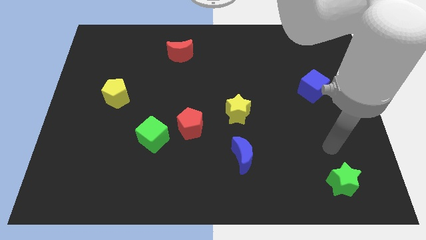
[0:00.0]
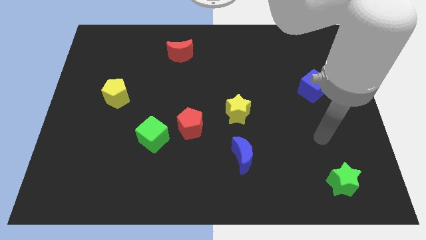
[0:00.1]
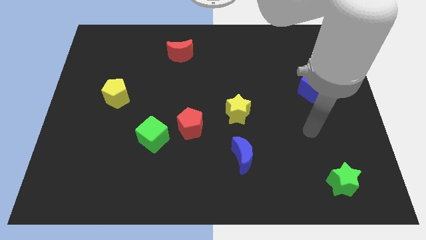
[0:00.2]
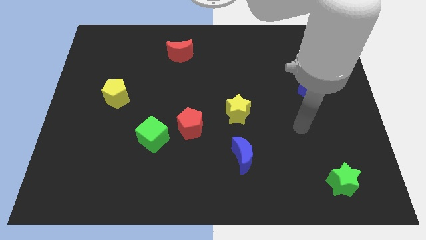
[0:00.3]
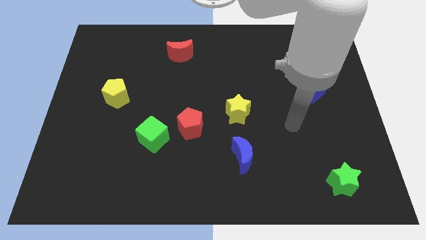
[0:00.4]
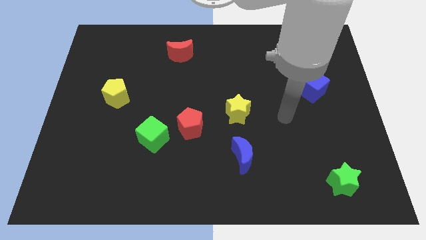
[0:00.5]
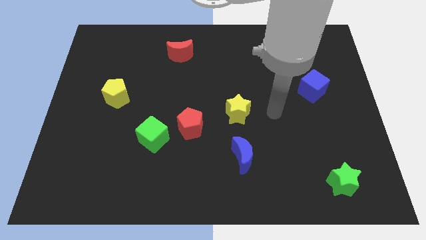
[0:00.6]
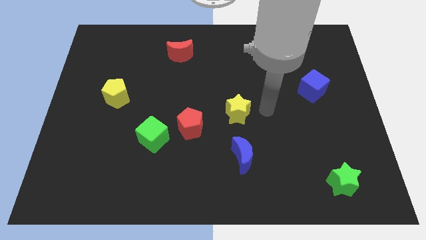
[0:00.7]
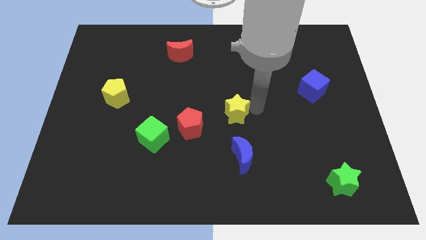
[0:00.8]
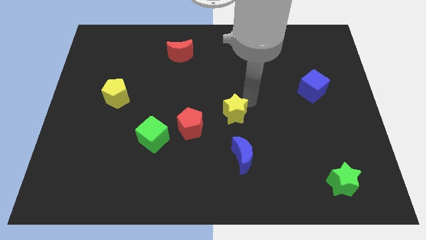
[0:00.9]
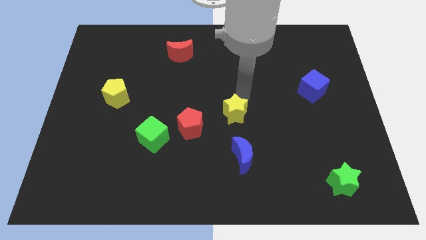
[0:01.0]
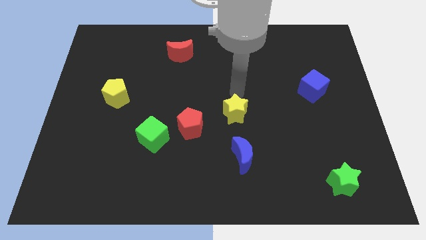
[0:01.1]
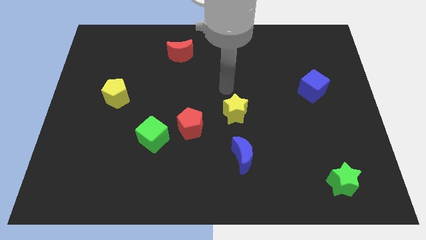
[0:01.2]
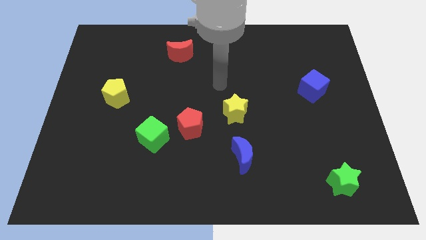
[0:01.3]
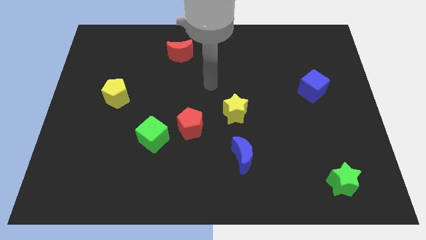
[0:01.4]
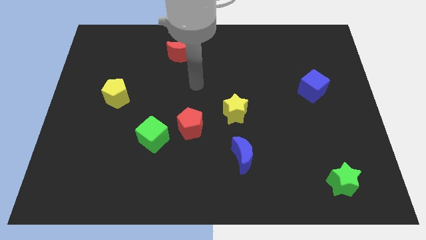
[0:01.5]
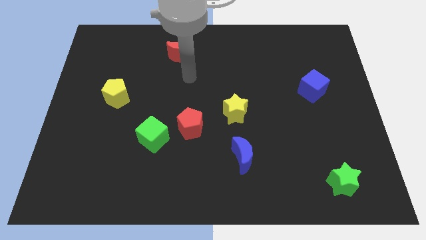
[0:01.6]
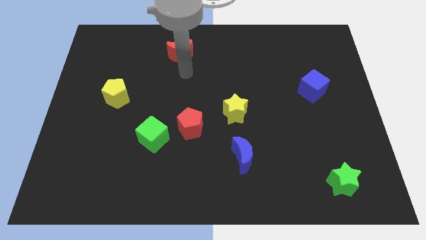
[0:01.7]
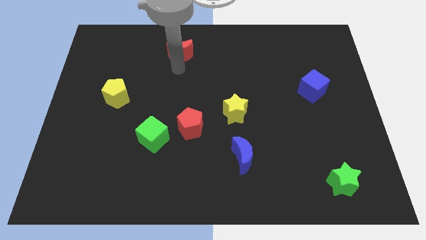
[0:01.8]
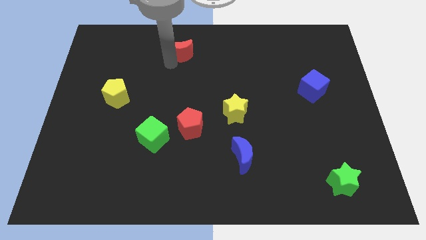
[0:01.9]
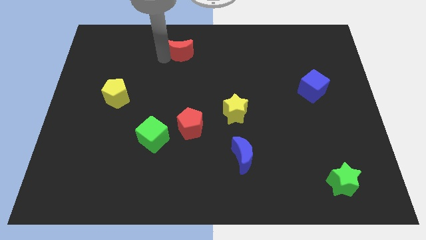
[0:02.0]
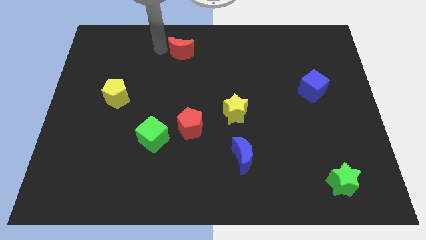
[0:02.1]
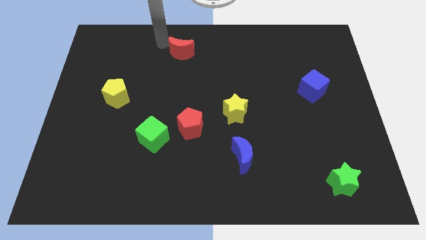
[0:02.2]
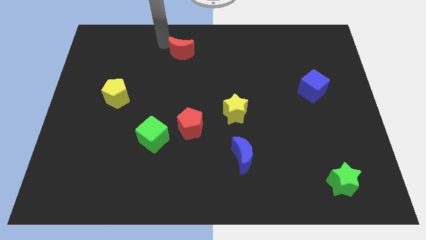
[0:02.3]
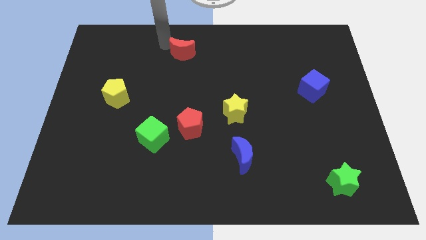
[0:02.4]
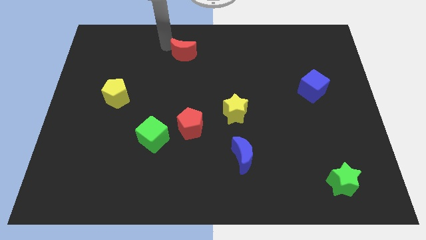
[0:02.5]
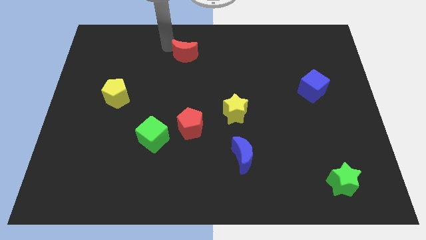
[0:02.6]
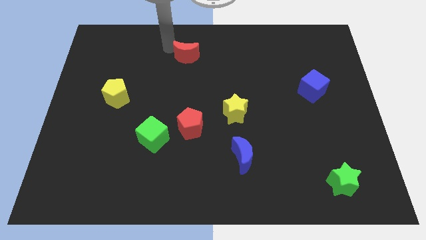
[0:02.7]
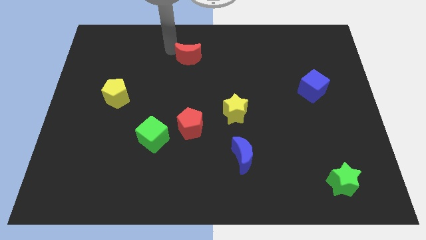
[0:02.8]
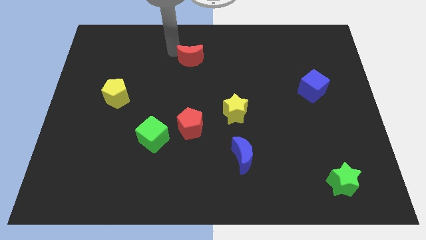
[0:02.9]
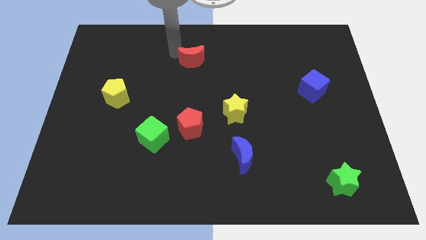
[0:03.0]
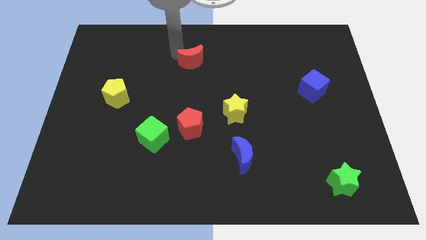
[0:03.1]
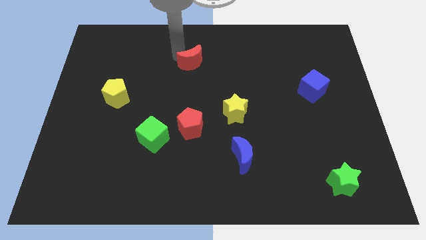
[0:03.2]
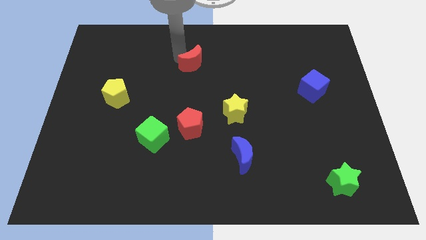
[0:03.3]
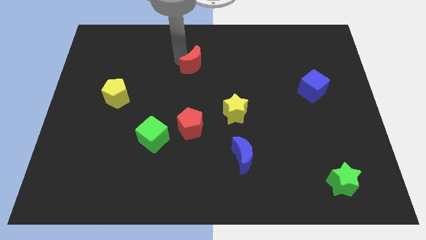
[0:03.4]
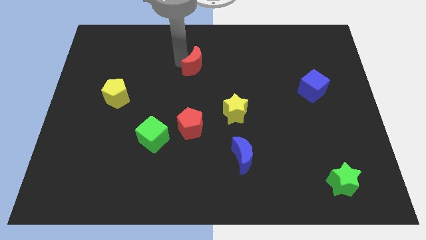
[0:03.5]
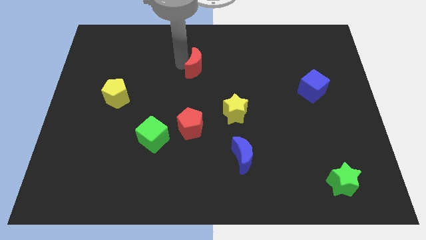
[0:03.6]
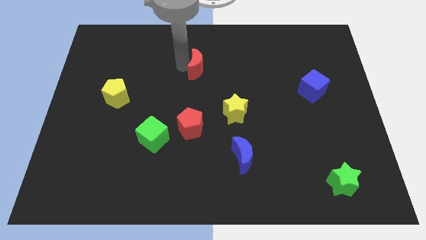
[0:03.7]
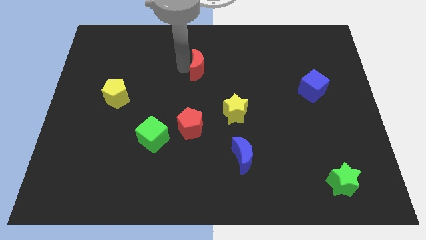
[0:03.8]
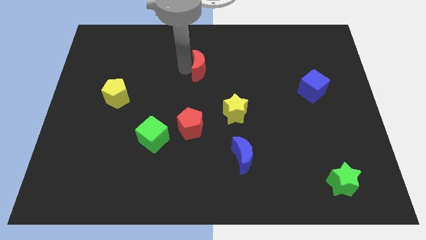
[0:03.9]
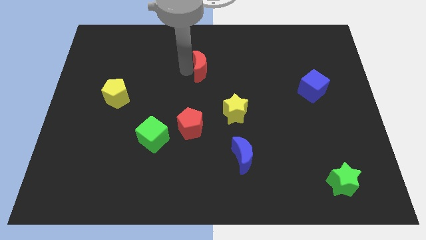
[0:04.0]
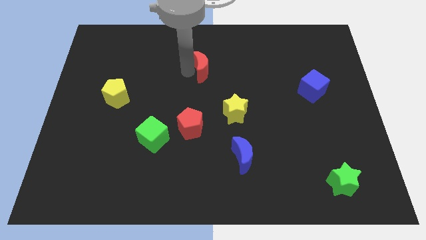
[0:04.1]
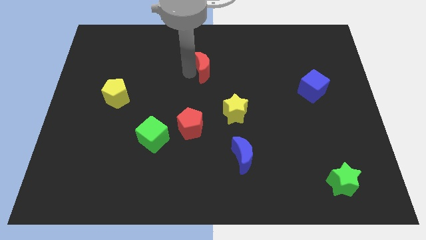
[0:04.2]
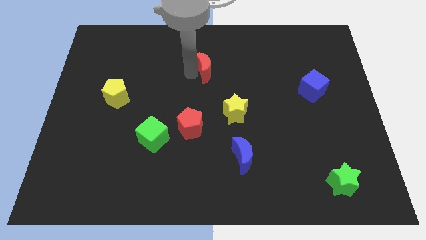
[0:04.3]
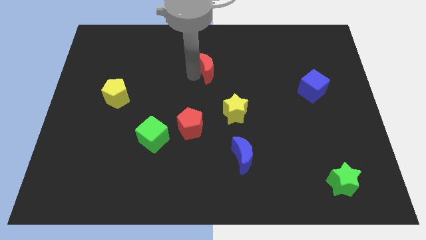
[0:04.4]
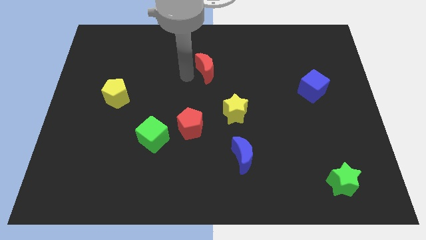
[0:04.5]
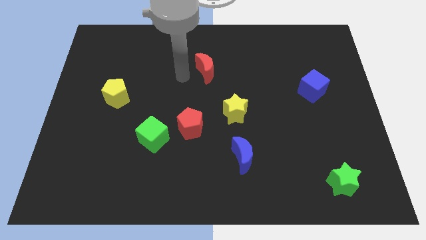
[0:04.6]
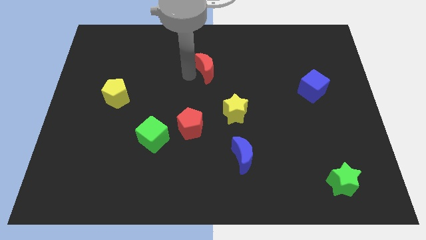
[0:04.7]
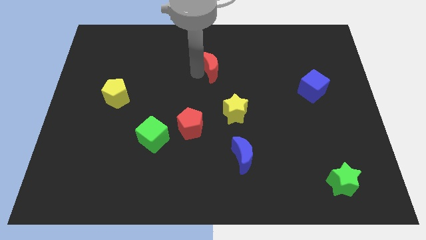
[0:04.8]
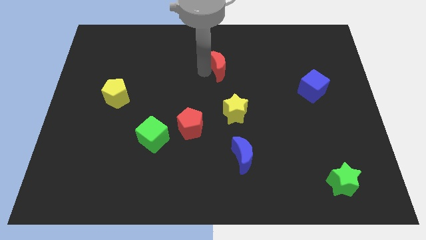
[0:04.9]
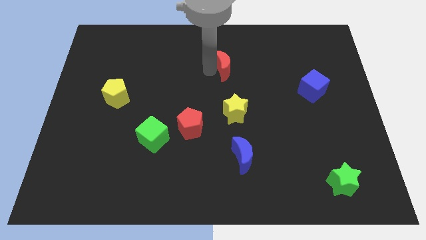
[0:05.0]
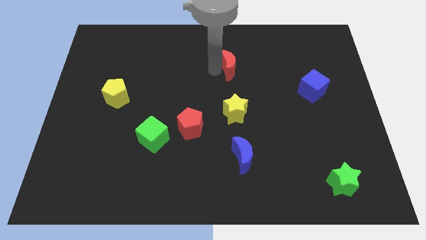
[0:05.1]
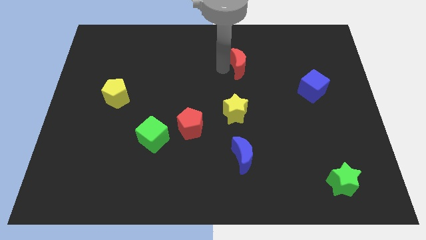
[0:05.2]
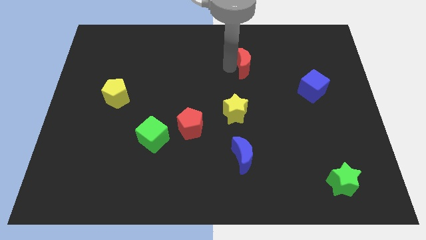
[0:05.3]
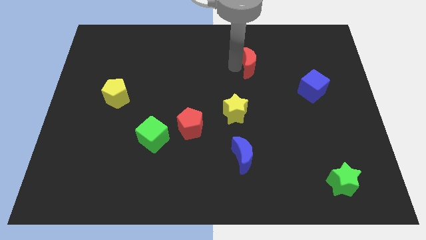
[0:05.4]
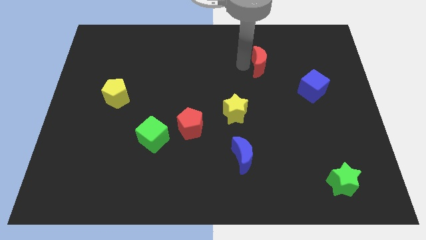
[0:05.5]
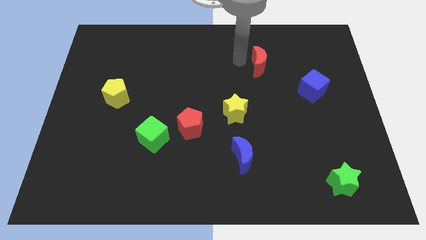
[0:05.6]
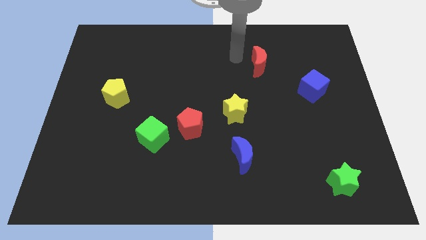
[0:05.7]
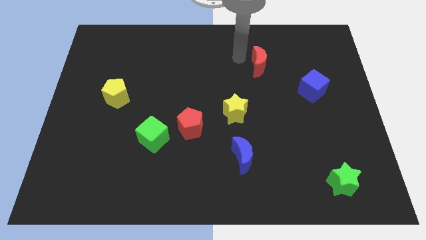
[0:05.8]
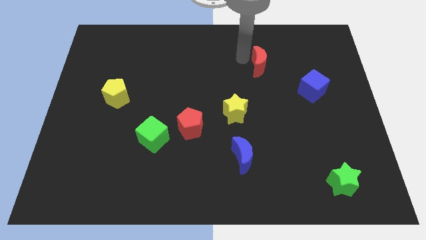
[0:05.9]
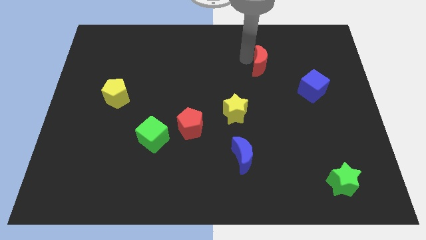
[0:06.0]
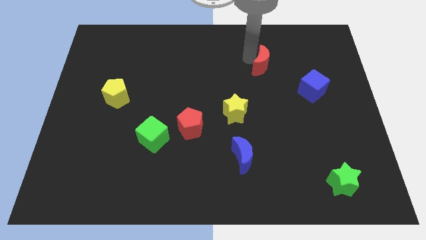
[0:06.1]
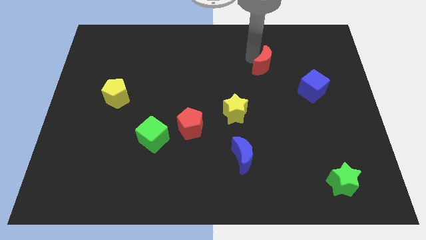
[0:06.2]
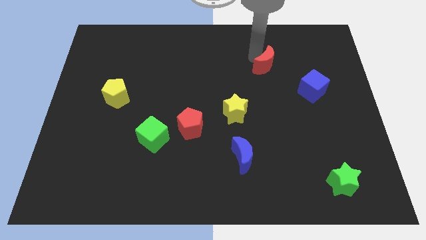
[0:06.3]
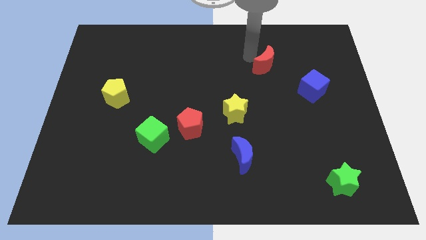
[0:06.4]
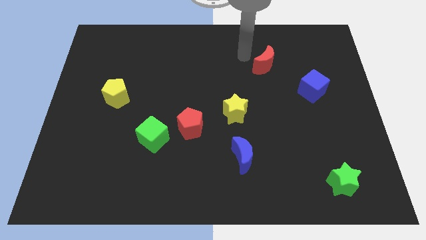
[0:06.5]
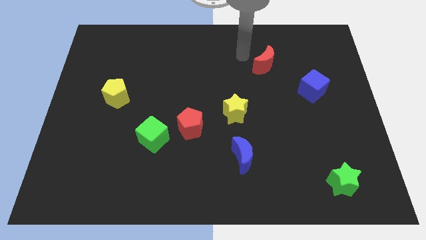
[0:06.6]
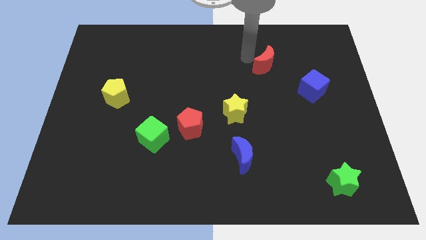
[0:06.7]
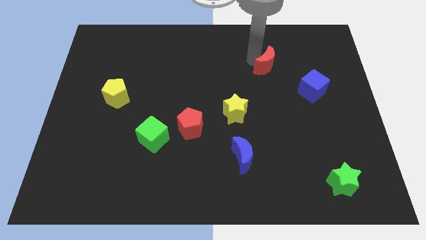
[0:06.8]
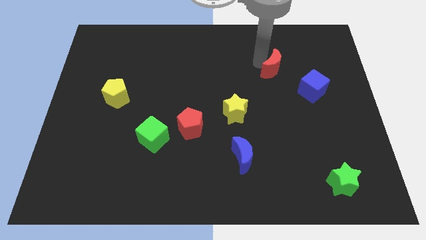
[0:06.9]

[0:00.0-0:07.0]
push the red moon diagonally up and to the left of the blue cube
